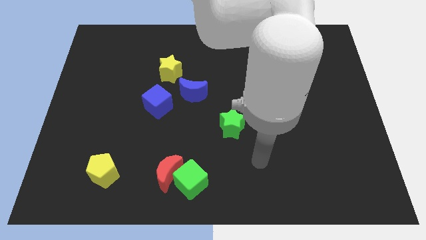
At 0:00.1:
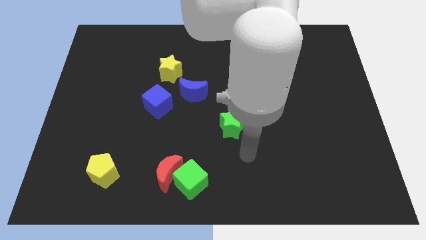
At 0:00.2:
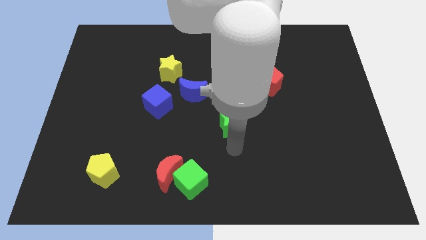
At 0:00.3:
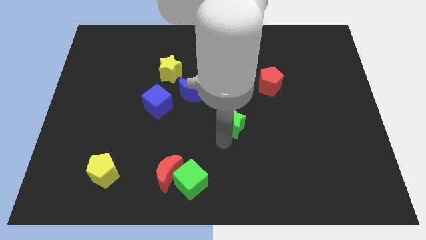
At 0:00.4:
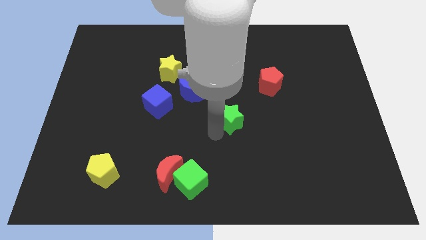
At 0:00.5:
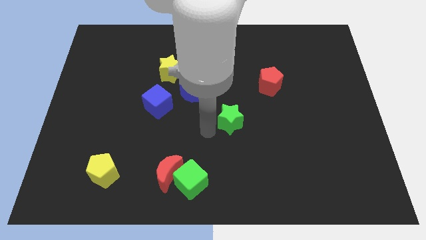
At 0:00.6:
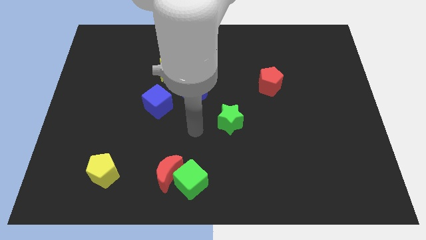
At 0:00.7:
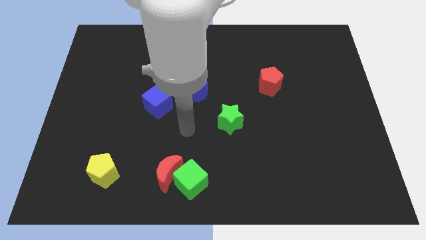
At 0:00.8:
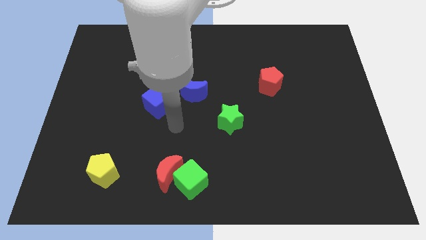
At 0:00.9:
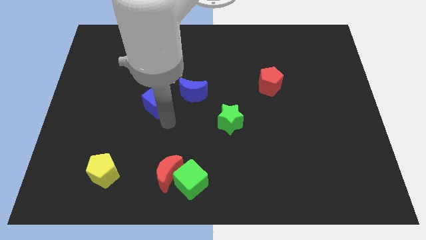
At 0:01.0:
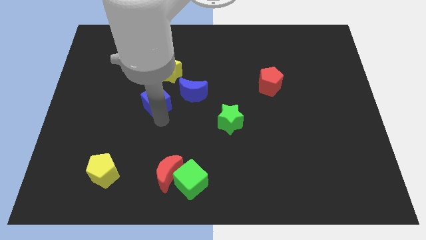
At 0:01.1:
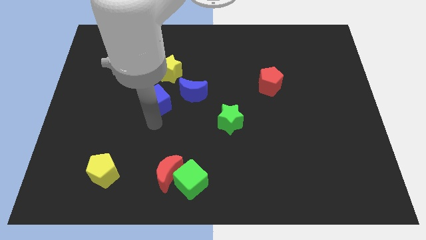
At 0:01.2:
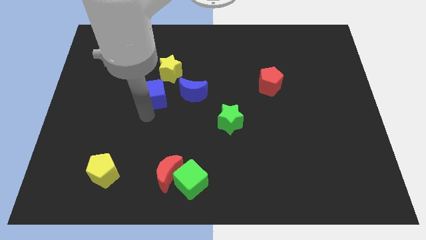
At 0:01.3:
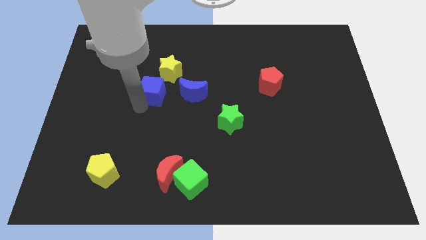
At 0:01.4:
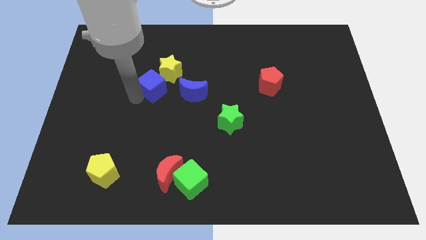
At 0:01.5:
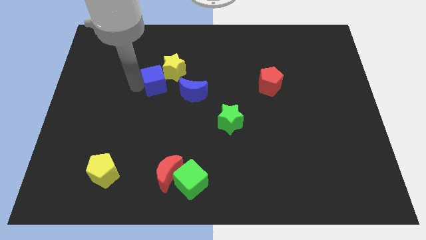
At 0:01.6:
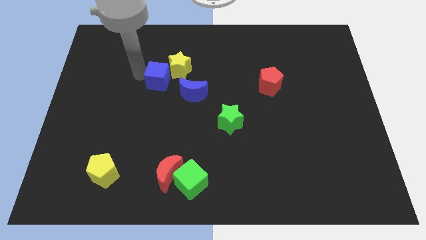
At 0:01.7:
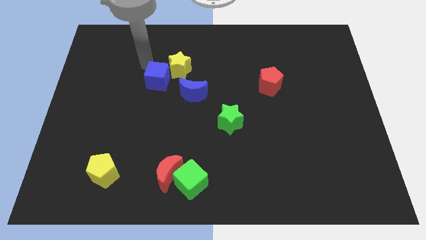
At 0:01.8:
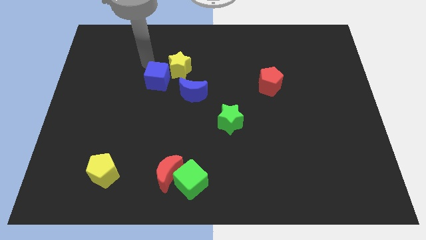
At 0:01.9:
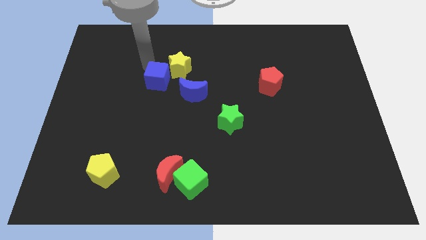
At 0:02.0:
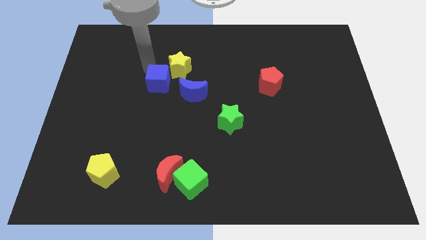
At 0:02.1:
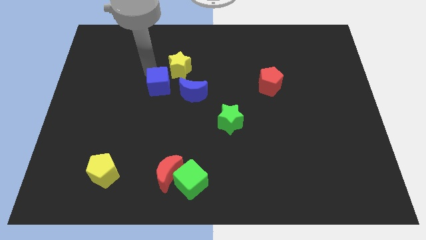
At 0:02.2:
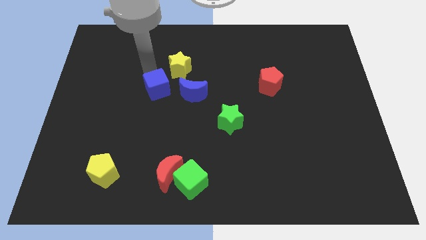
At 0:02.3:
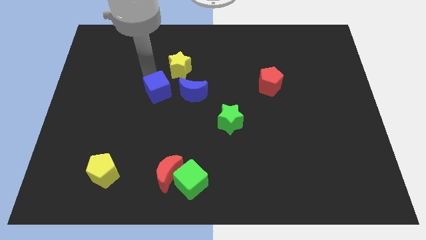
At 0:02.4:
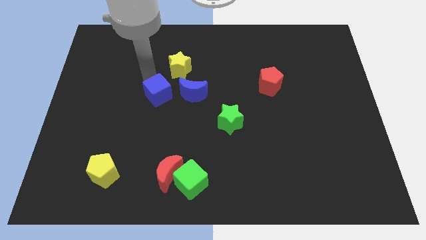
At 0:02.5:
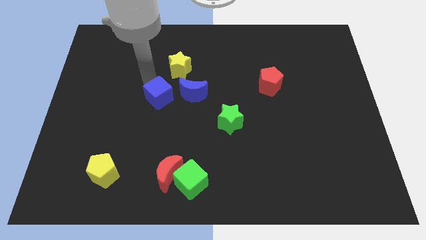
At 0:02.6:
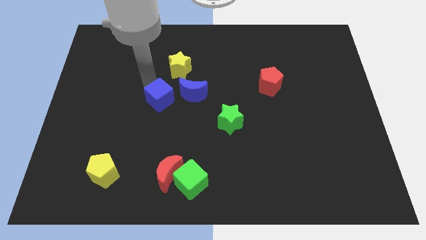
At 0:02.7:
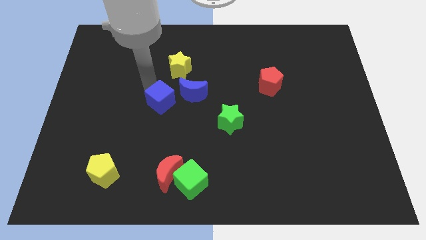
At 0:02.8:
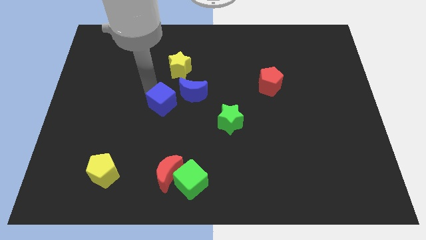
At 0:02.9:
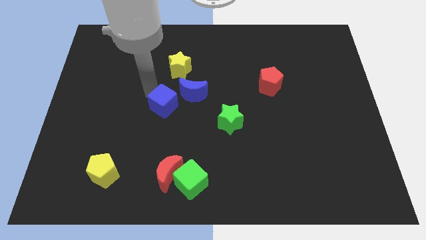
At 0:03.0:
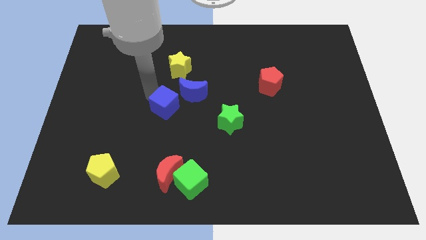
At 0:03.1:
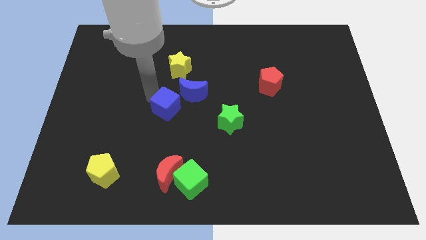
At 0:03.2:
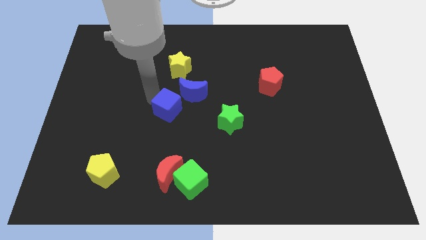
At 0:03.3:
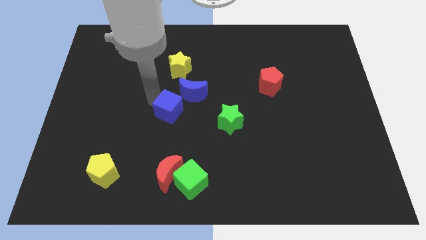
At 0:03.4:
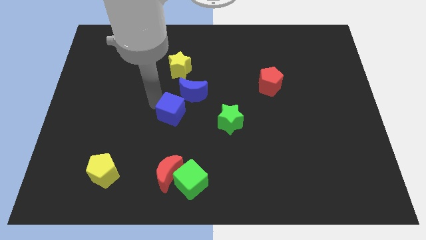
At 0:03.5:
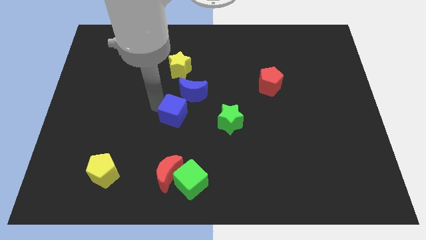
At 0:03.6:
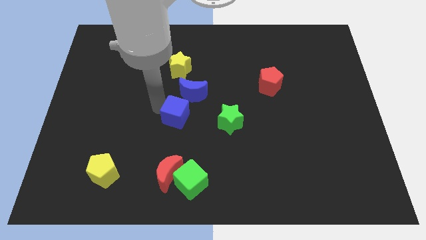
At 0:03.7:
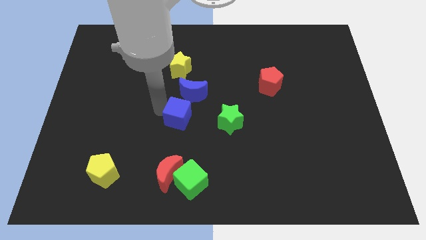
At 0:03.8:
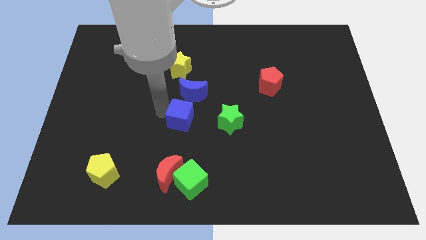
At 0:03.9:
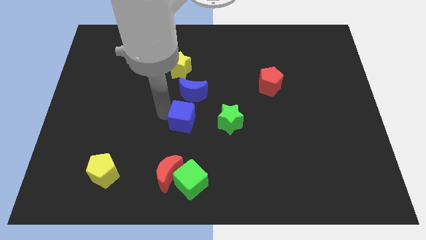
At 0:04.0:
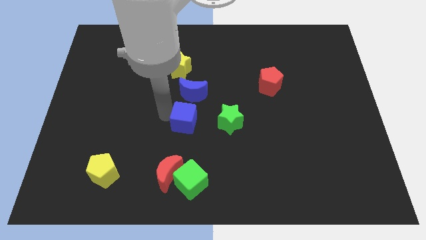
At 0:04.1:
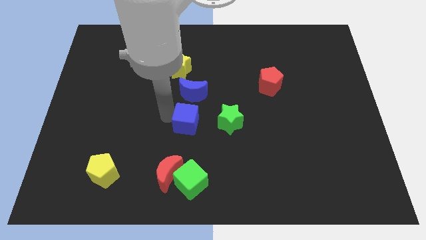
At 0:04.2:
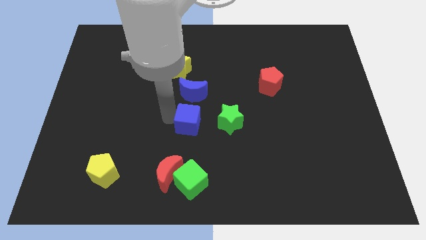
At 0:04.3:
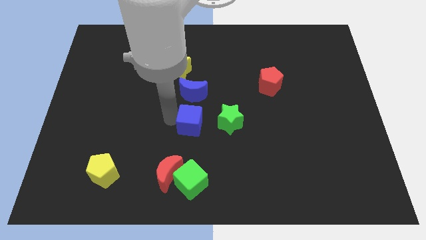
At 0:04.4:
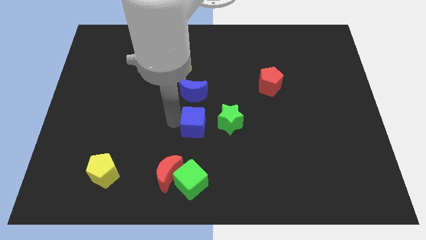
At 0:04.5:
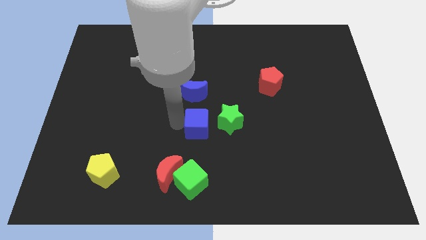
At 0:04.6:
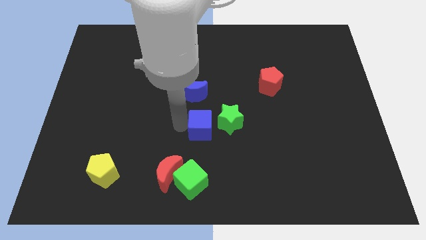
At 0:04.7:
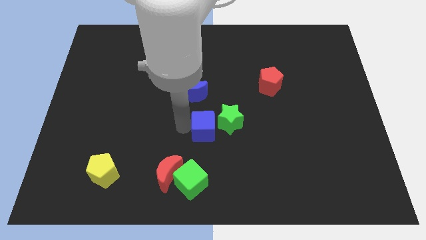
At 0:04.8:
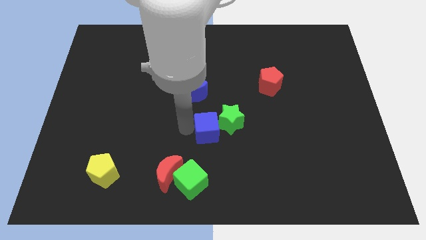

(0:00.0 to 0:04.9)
slide the blue cube to the green star

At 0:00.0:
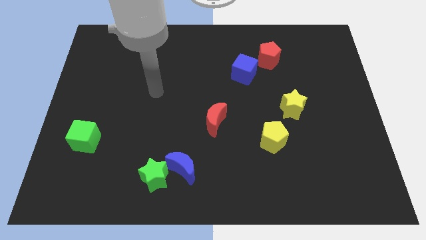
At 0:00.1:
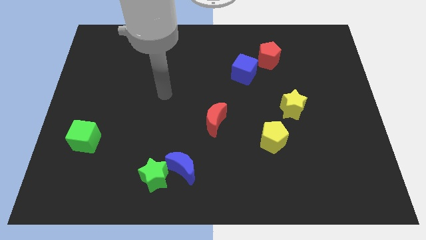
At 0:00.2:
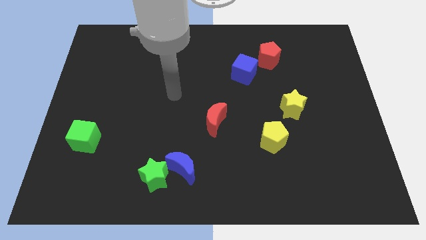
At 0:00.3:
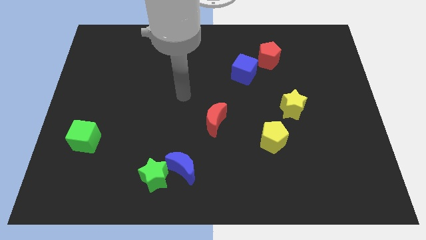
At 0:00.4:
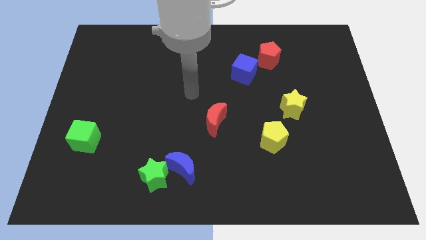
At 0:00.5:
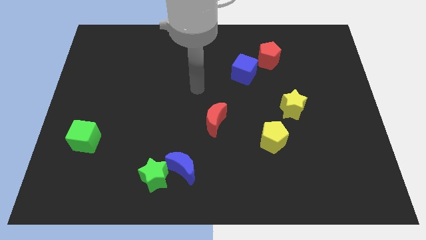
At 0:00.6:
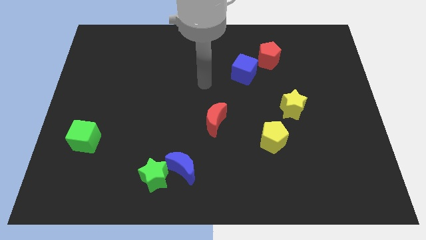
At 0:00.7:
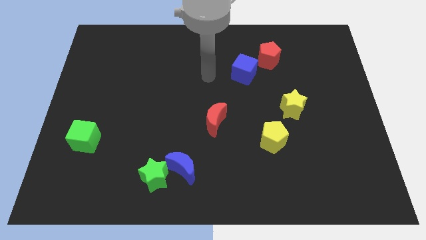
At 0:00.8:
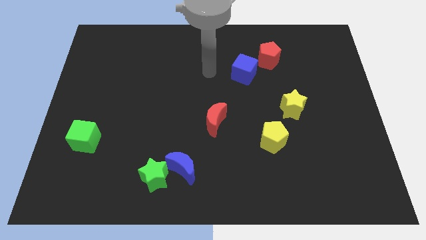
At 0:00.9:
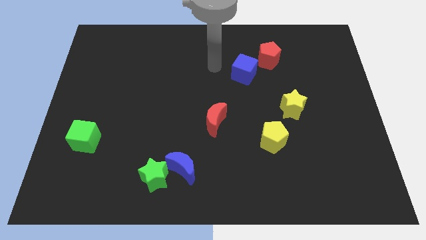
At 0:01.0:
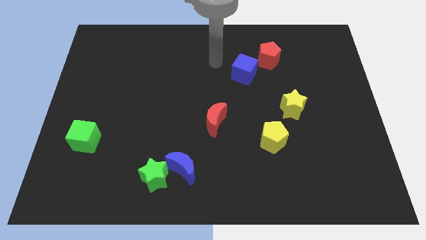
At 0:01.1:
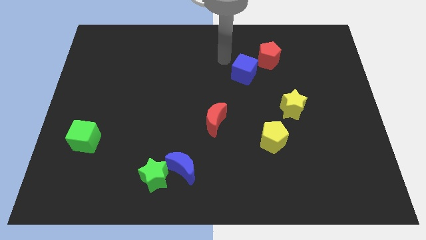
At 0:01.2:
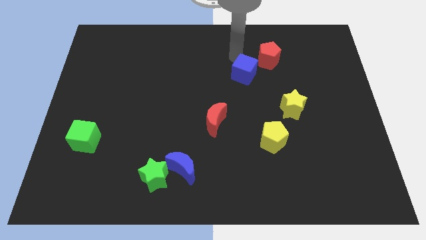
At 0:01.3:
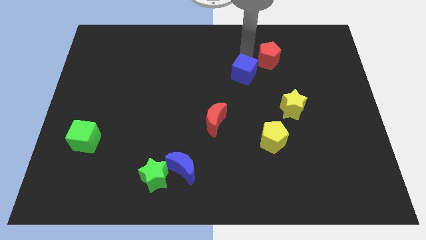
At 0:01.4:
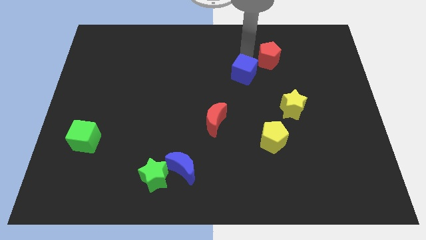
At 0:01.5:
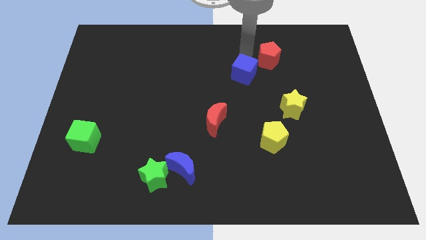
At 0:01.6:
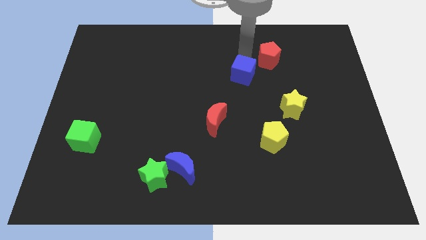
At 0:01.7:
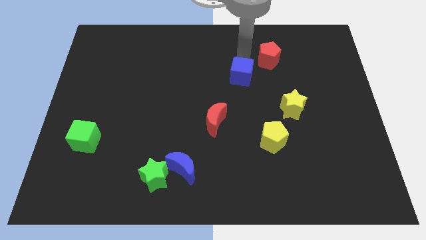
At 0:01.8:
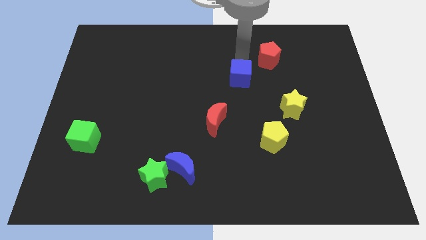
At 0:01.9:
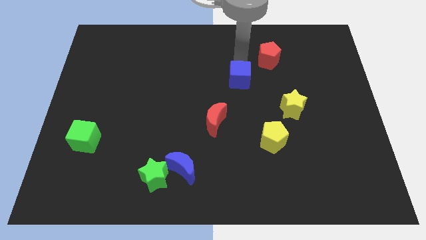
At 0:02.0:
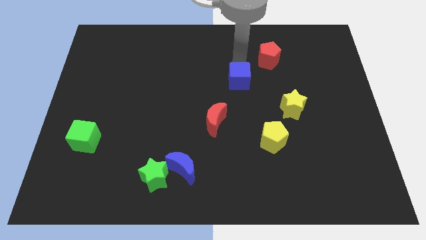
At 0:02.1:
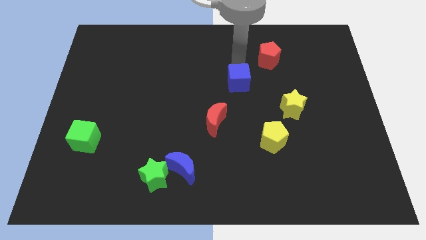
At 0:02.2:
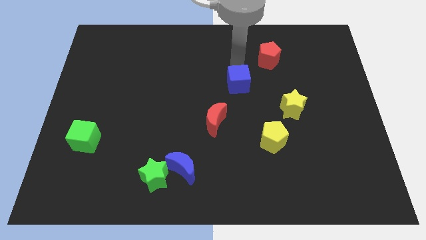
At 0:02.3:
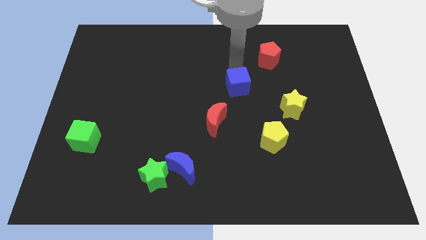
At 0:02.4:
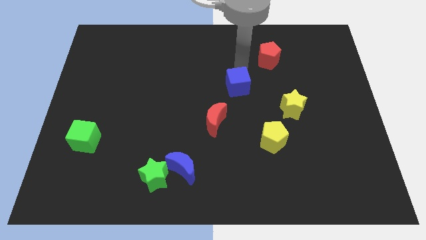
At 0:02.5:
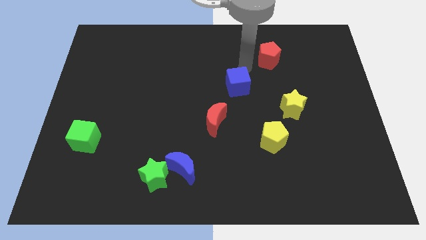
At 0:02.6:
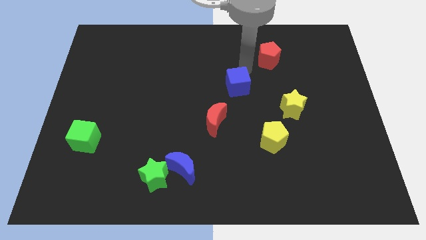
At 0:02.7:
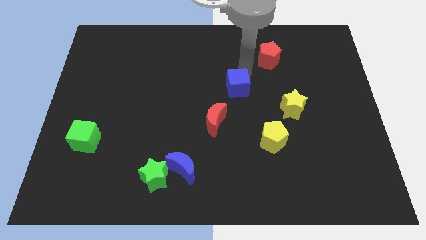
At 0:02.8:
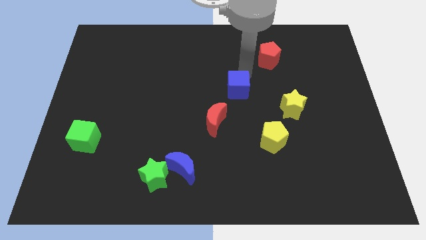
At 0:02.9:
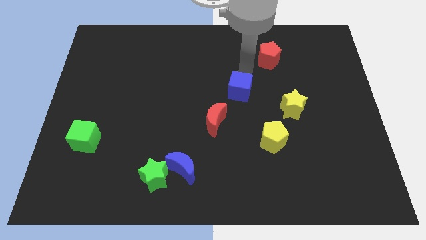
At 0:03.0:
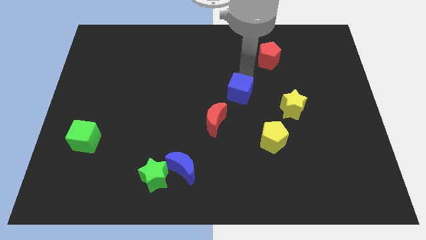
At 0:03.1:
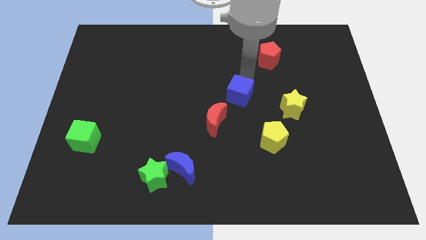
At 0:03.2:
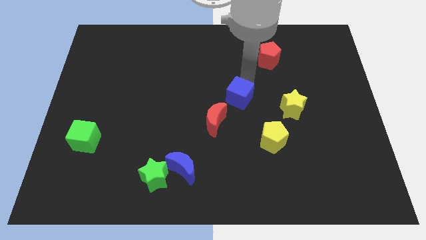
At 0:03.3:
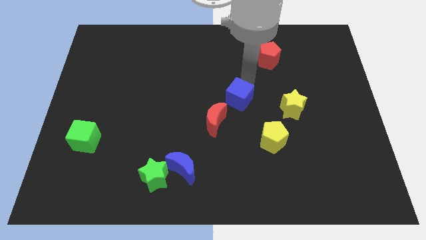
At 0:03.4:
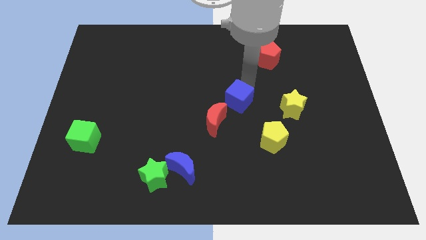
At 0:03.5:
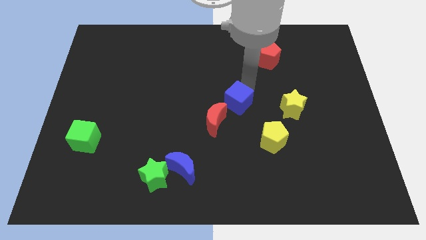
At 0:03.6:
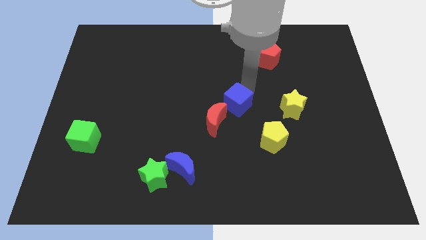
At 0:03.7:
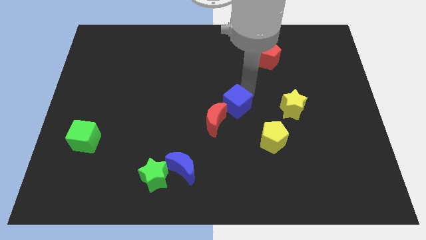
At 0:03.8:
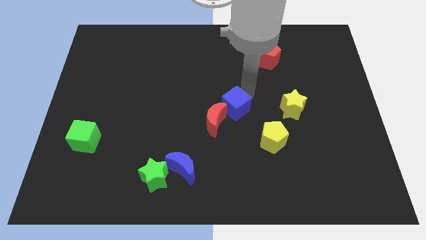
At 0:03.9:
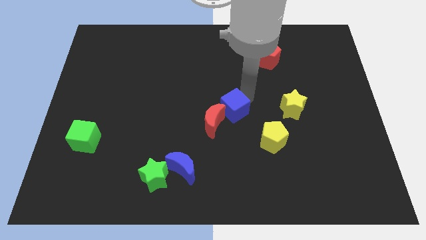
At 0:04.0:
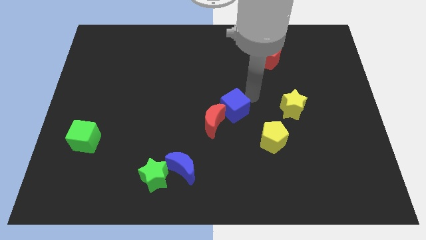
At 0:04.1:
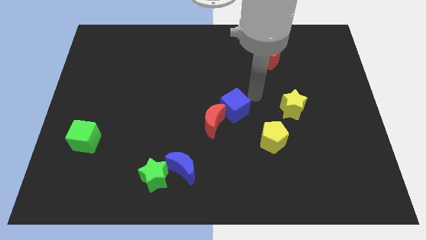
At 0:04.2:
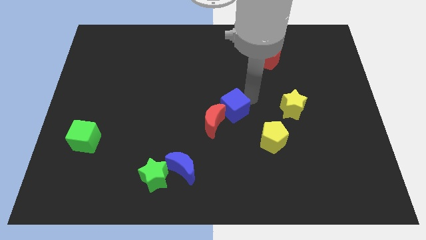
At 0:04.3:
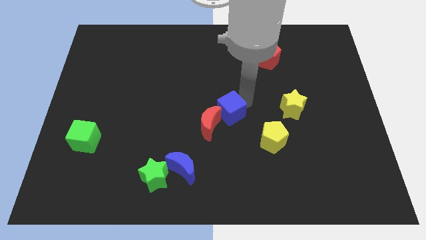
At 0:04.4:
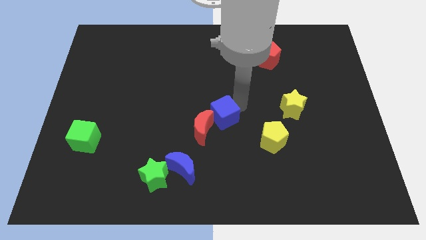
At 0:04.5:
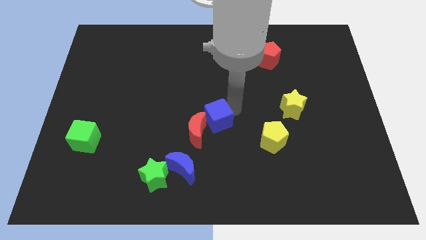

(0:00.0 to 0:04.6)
put the blue cube close to the red moon
